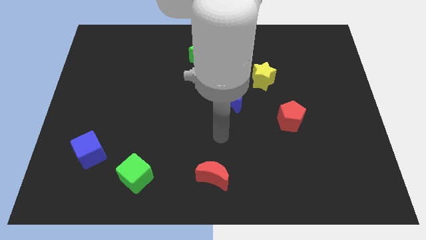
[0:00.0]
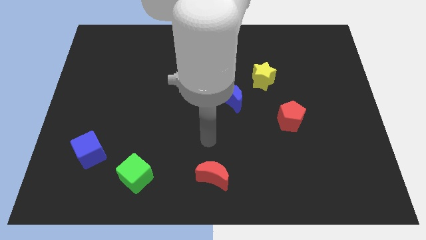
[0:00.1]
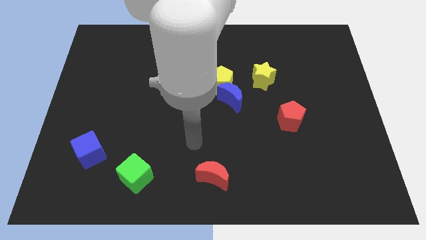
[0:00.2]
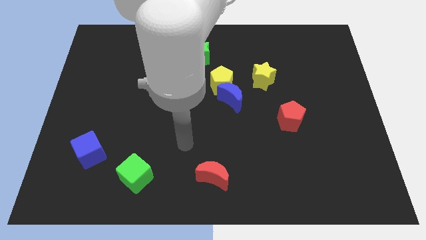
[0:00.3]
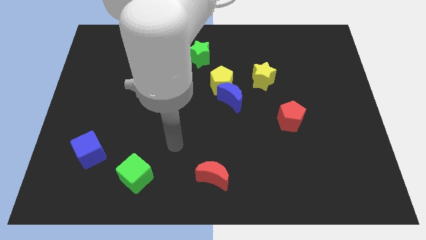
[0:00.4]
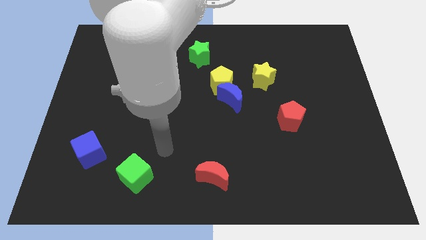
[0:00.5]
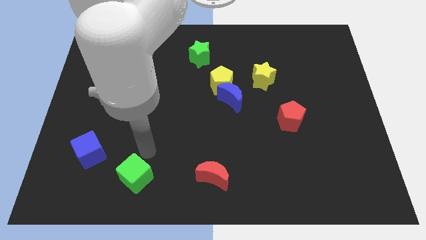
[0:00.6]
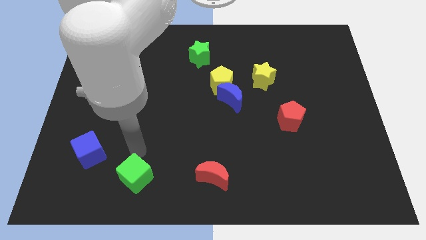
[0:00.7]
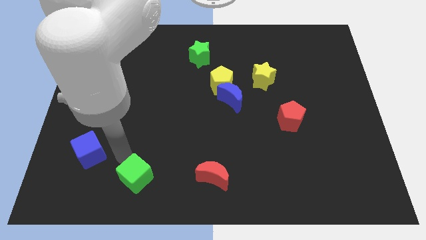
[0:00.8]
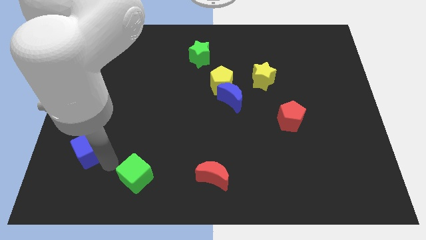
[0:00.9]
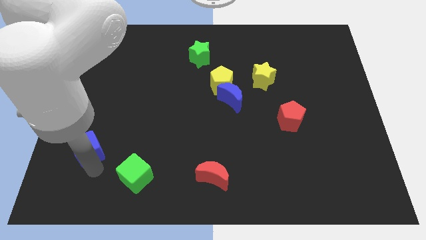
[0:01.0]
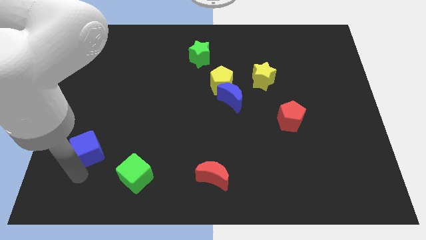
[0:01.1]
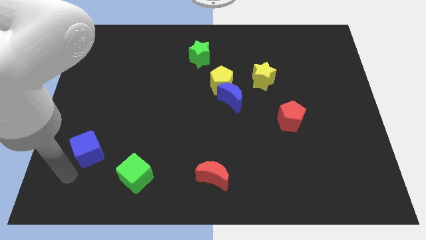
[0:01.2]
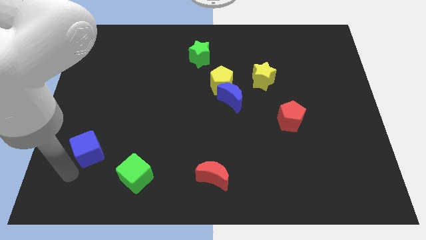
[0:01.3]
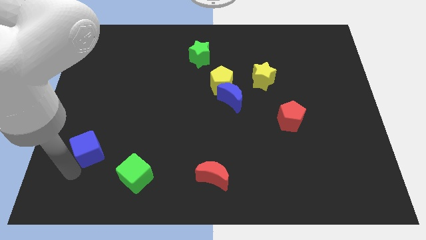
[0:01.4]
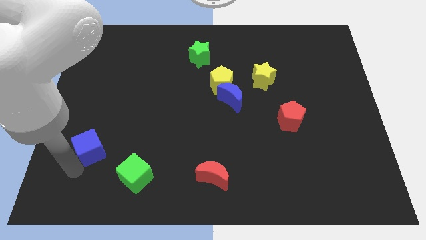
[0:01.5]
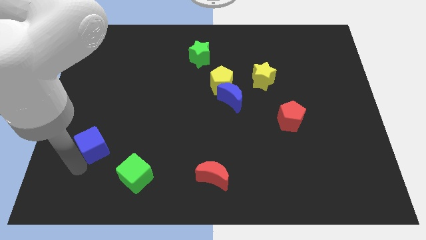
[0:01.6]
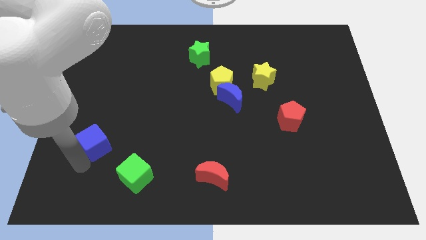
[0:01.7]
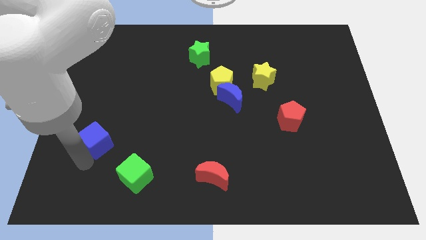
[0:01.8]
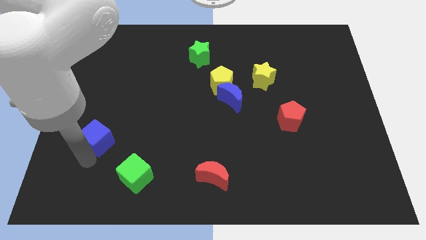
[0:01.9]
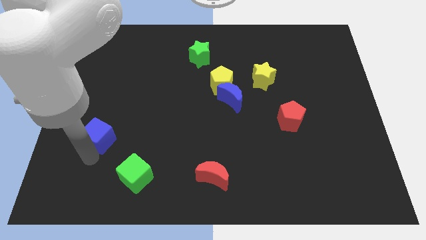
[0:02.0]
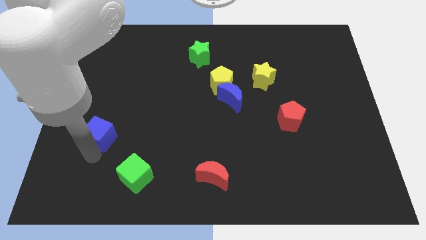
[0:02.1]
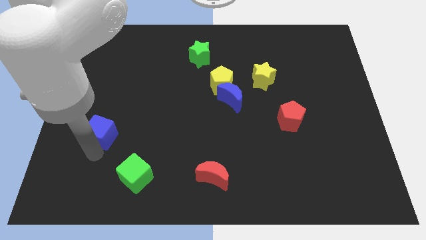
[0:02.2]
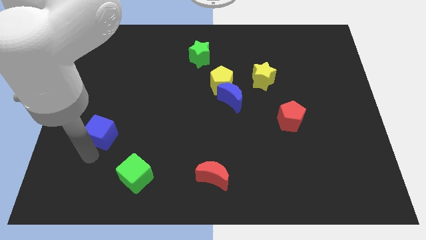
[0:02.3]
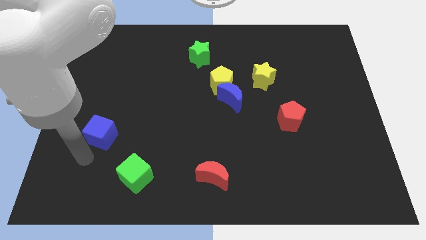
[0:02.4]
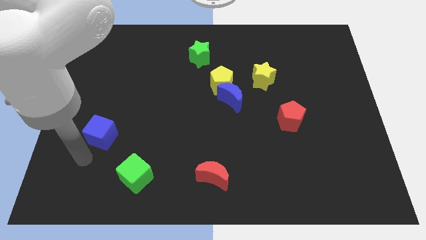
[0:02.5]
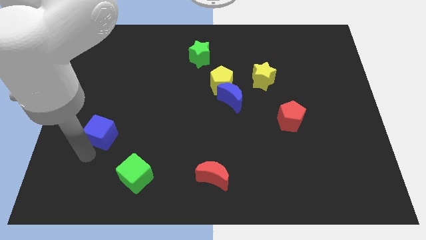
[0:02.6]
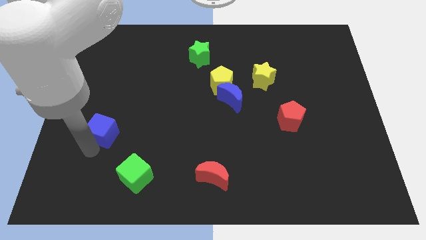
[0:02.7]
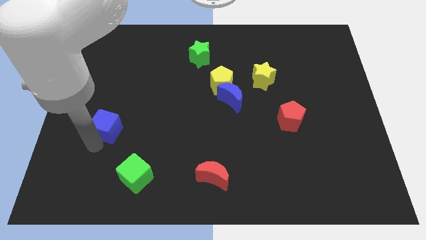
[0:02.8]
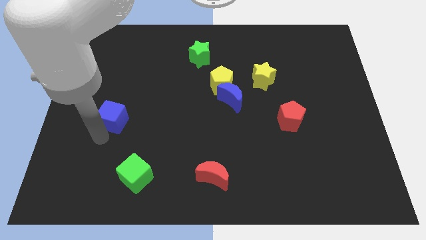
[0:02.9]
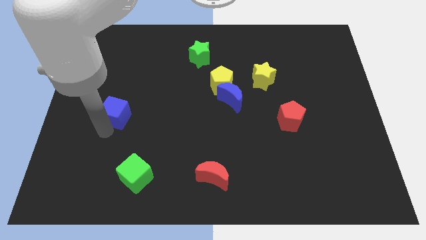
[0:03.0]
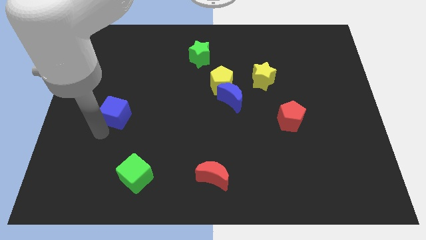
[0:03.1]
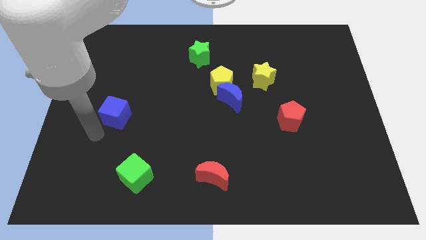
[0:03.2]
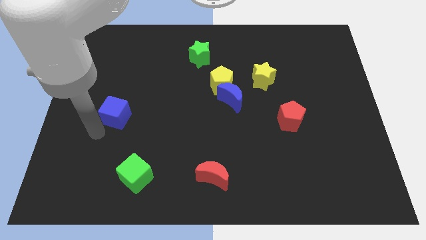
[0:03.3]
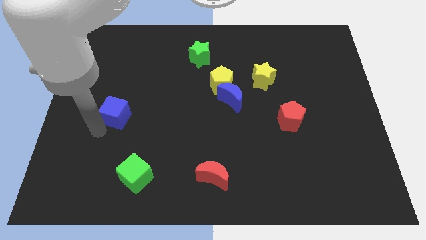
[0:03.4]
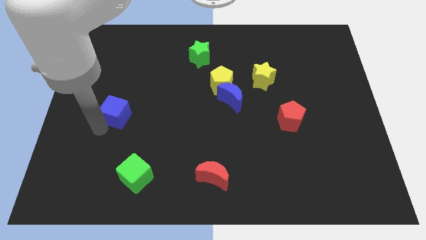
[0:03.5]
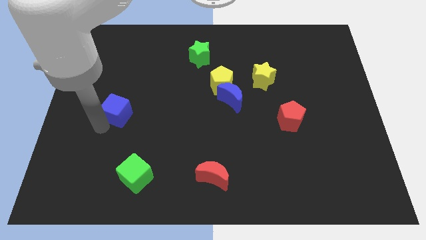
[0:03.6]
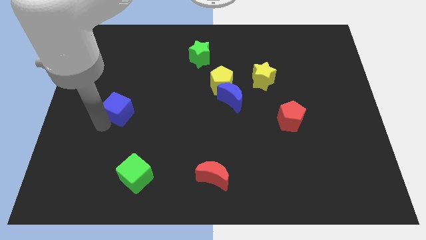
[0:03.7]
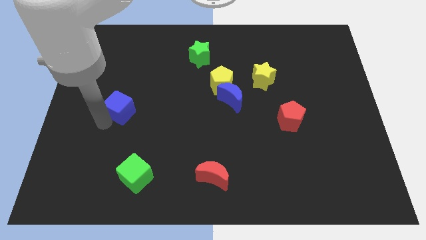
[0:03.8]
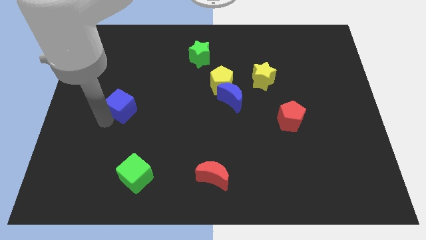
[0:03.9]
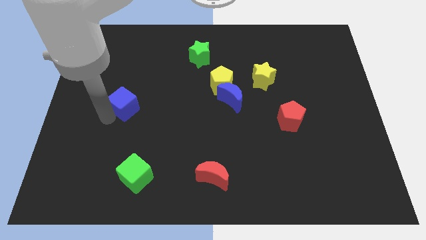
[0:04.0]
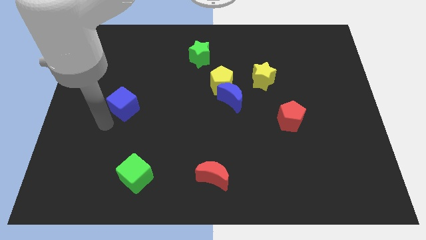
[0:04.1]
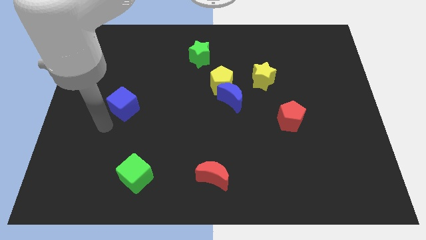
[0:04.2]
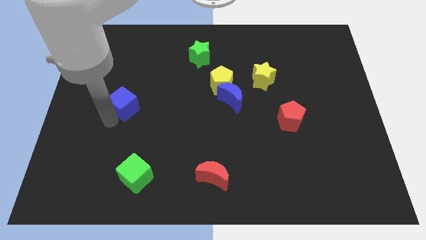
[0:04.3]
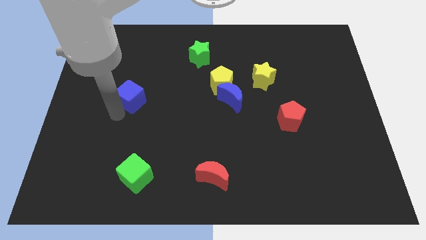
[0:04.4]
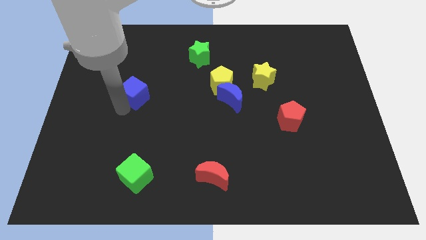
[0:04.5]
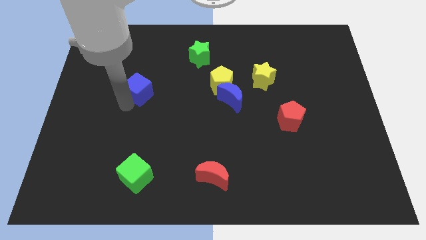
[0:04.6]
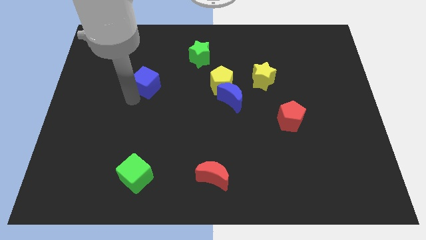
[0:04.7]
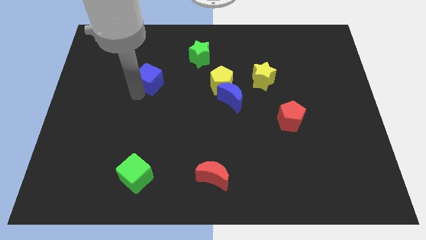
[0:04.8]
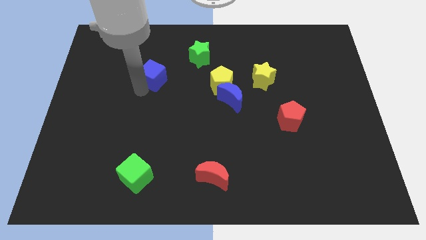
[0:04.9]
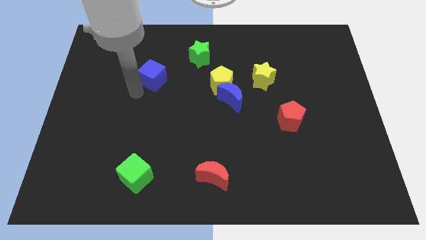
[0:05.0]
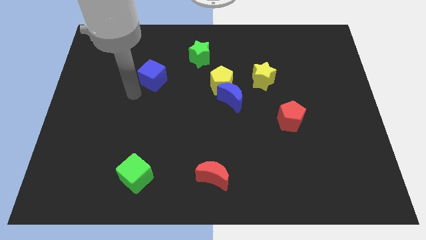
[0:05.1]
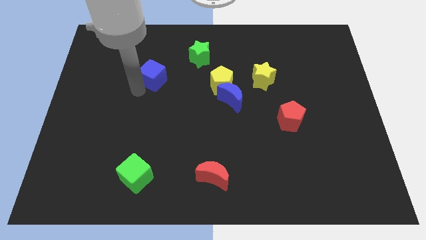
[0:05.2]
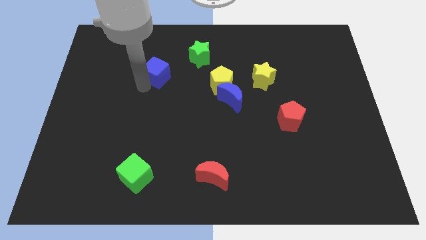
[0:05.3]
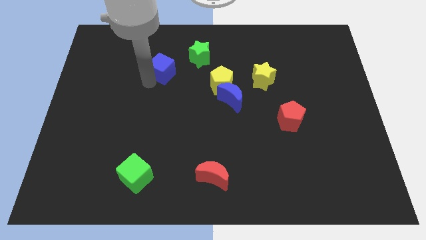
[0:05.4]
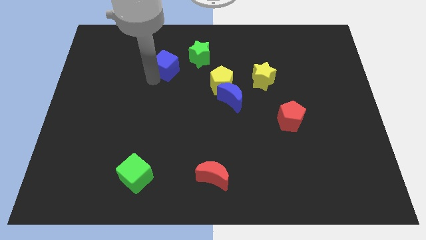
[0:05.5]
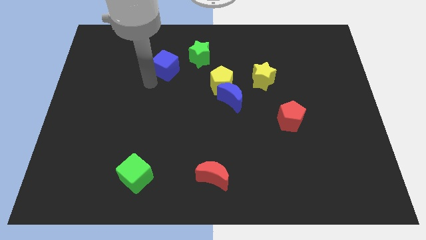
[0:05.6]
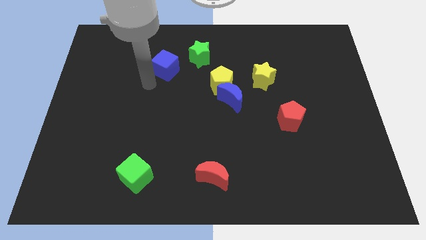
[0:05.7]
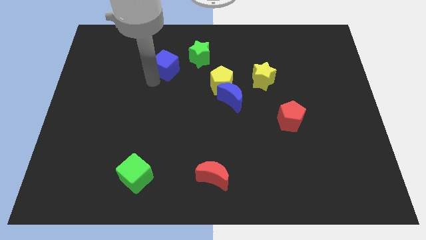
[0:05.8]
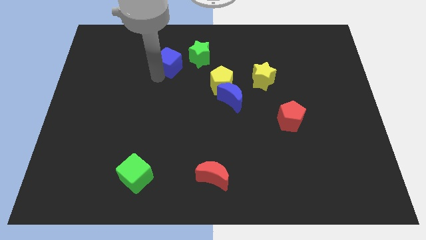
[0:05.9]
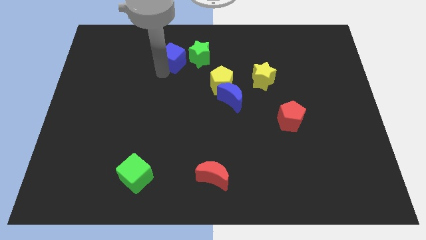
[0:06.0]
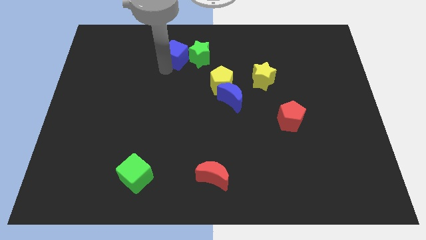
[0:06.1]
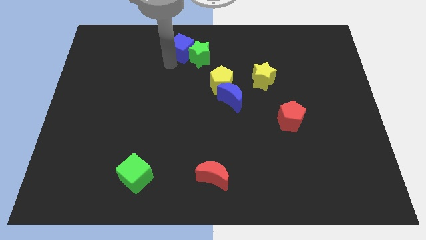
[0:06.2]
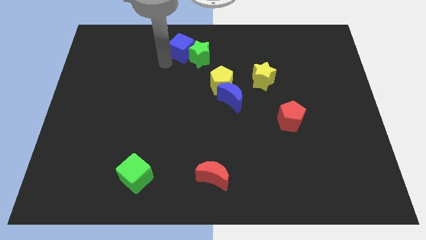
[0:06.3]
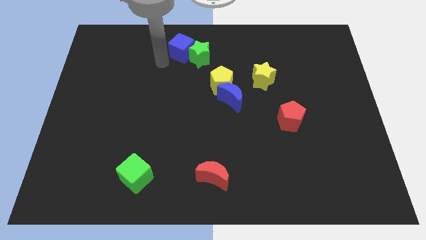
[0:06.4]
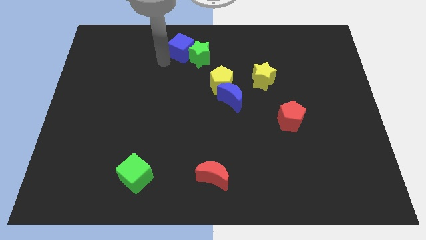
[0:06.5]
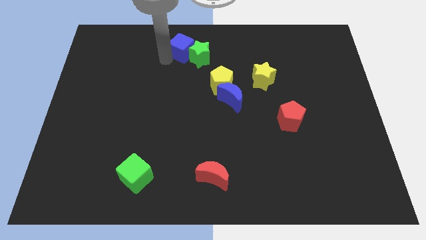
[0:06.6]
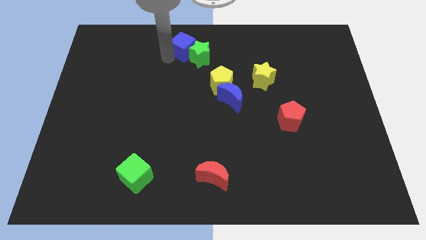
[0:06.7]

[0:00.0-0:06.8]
put the blue cube to the top
